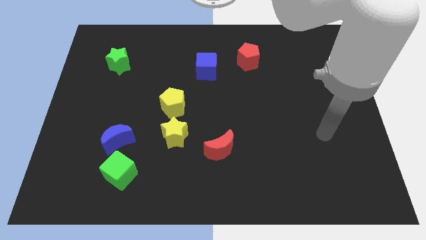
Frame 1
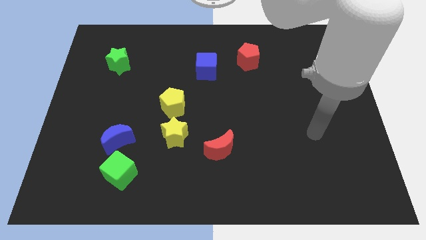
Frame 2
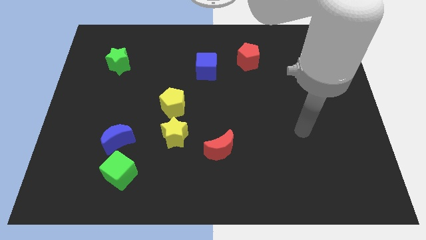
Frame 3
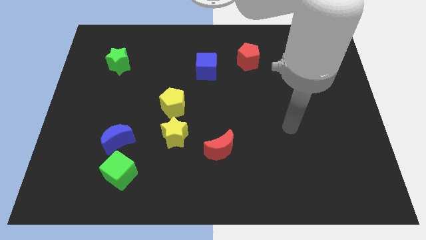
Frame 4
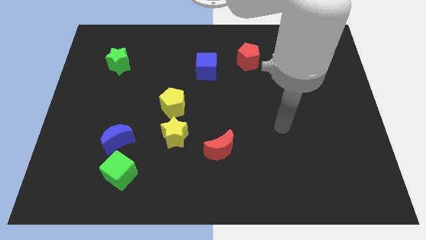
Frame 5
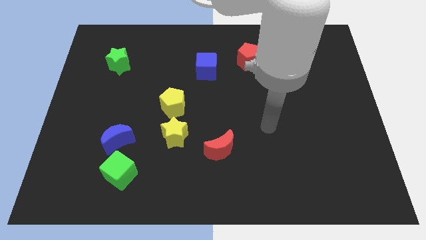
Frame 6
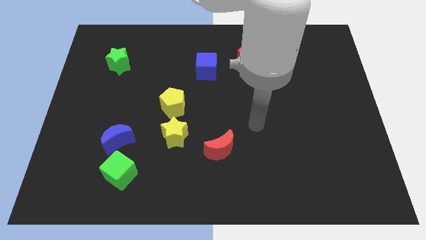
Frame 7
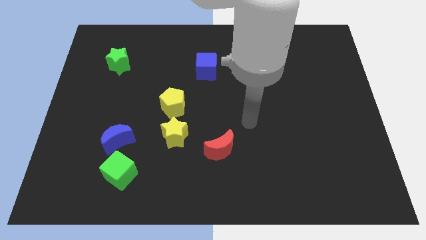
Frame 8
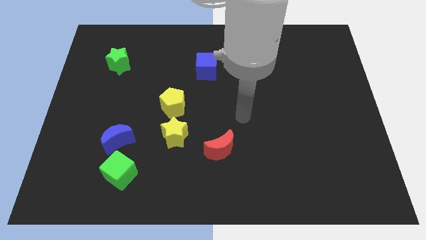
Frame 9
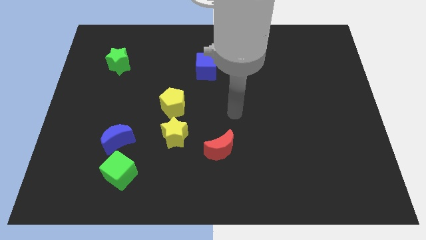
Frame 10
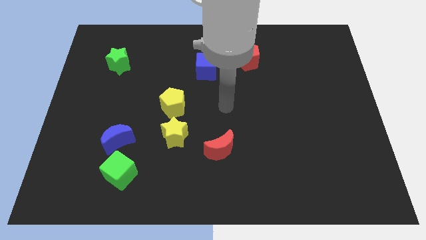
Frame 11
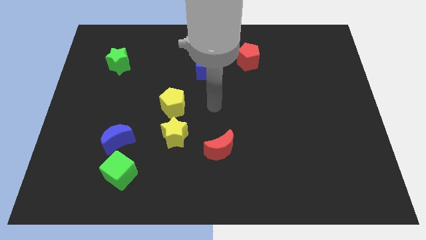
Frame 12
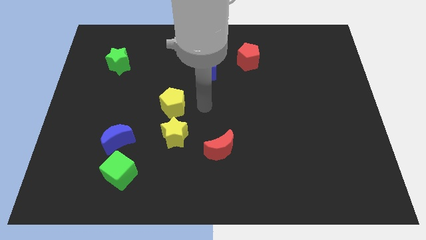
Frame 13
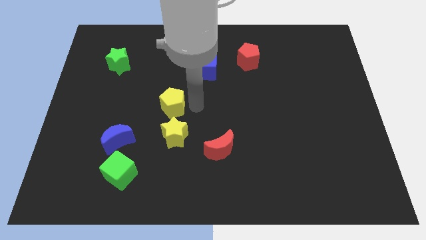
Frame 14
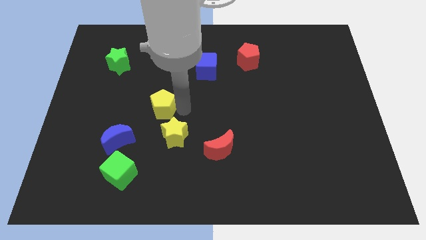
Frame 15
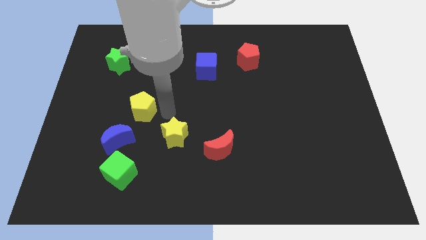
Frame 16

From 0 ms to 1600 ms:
separate the yellow star from the yellow pentagon

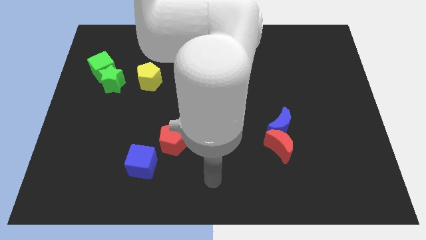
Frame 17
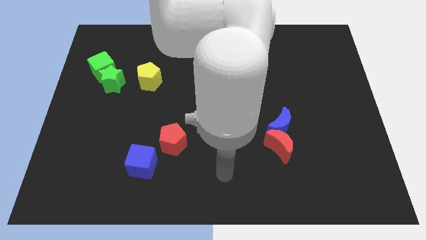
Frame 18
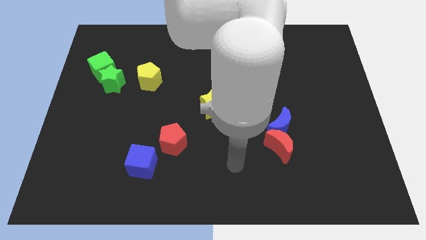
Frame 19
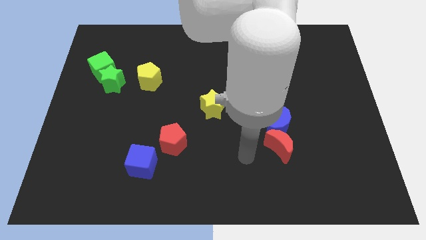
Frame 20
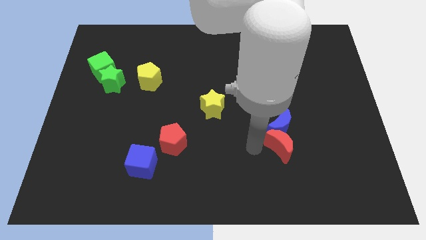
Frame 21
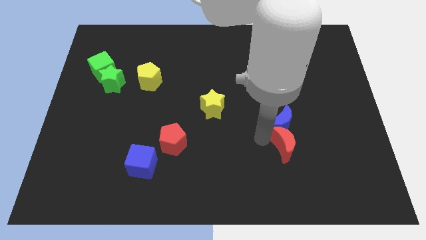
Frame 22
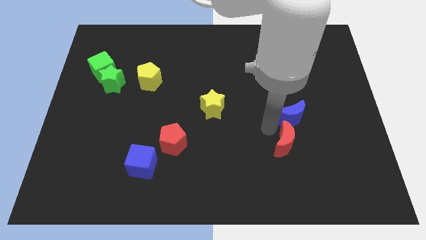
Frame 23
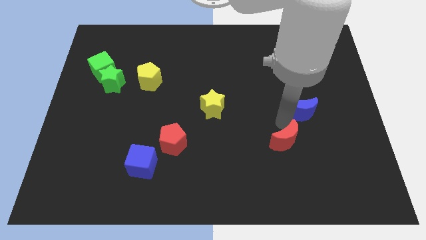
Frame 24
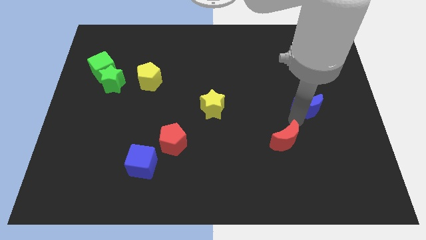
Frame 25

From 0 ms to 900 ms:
move the red moon away from the blue moon

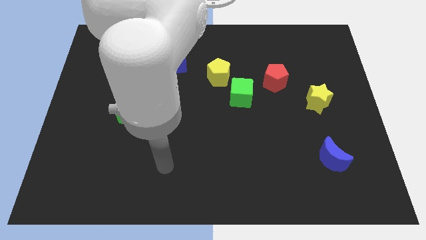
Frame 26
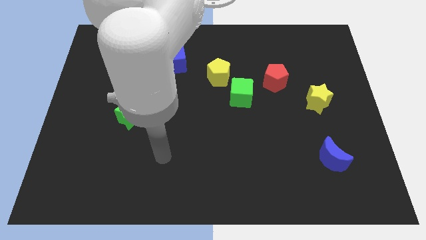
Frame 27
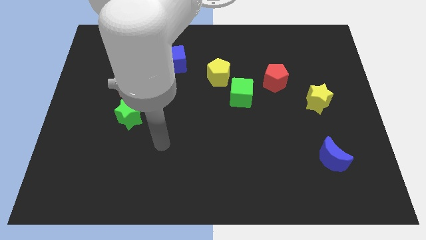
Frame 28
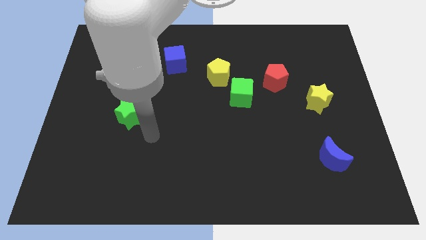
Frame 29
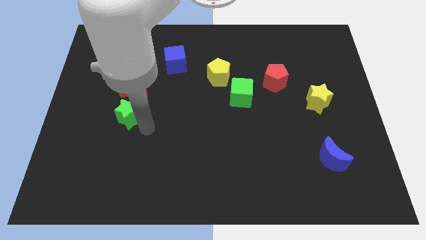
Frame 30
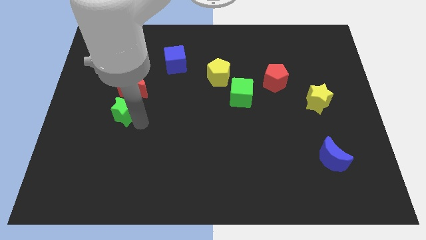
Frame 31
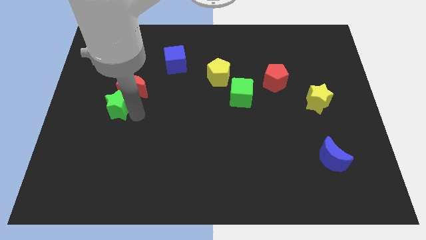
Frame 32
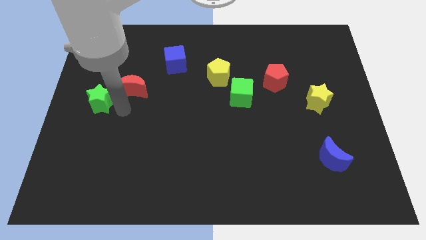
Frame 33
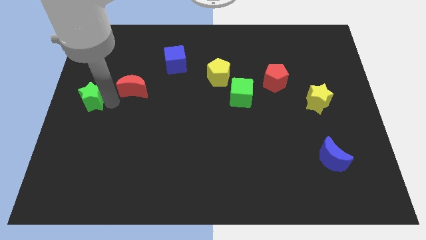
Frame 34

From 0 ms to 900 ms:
move the red moon away from the green star

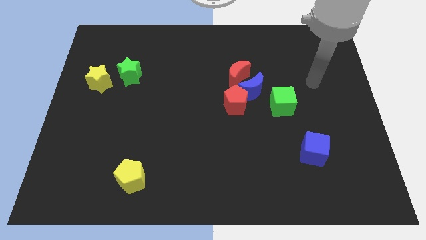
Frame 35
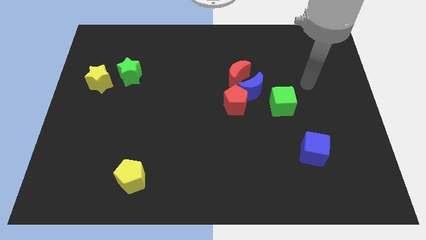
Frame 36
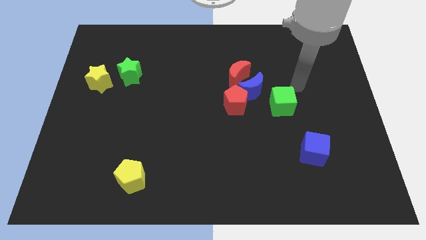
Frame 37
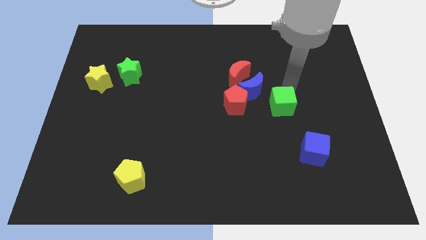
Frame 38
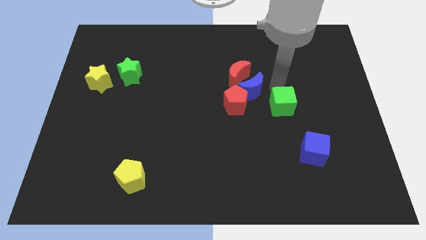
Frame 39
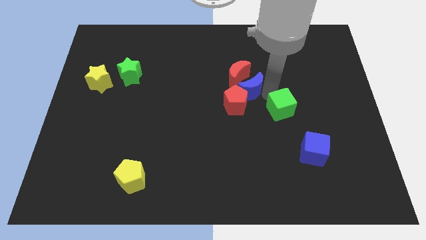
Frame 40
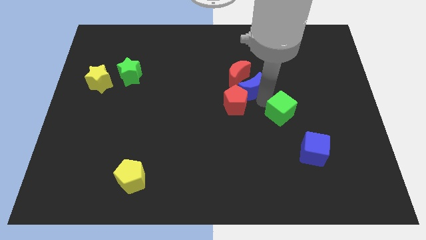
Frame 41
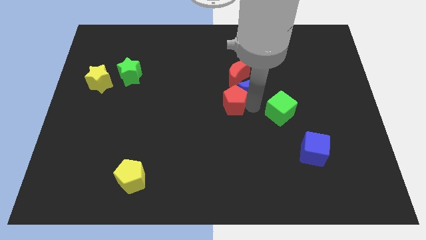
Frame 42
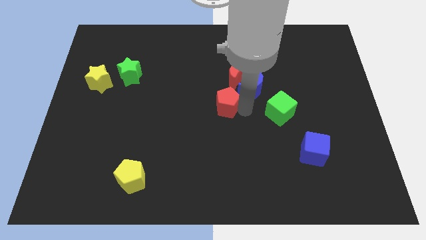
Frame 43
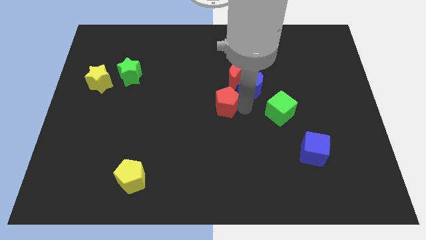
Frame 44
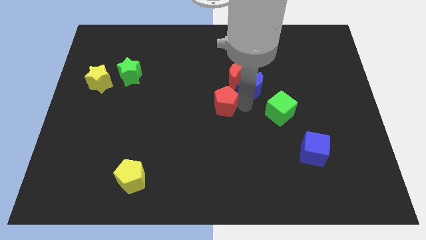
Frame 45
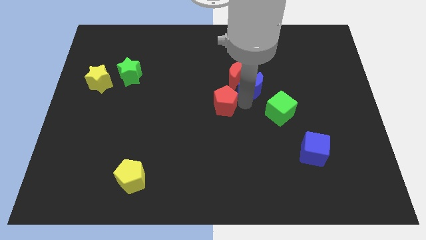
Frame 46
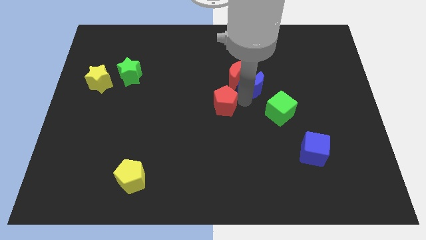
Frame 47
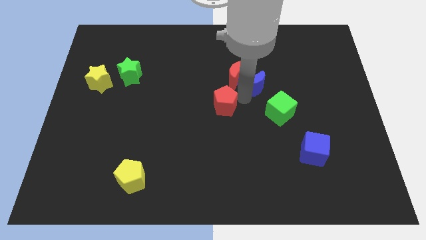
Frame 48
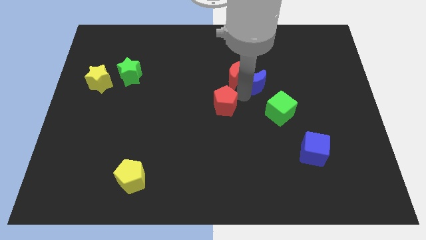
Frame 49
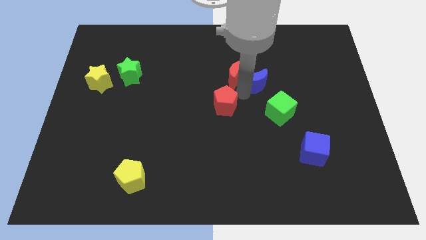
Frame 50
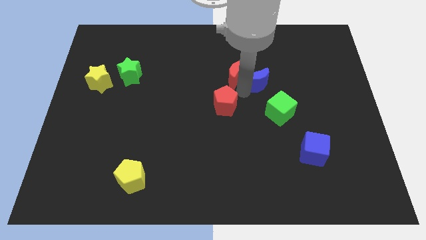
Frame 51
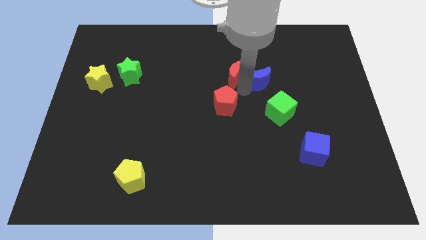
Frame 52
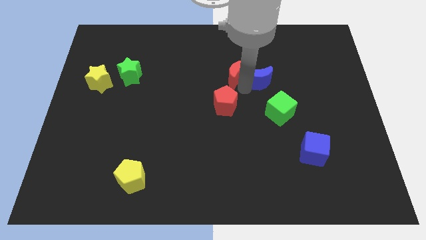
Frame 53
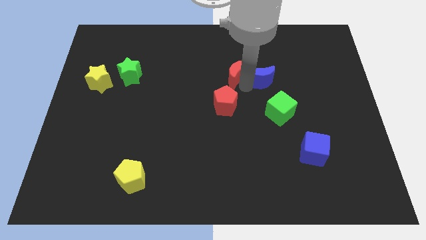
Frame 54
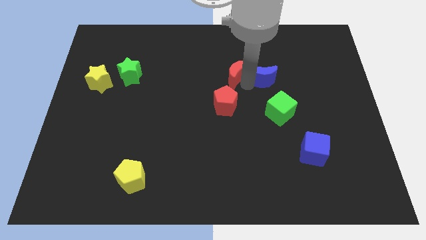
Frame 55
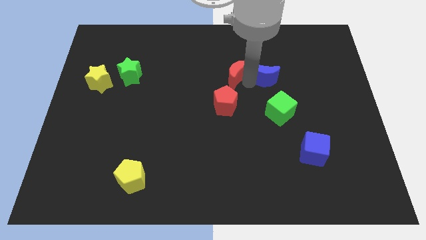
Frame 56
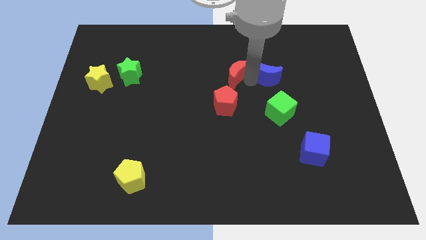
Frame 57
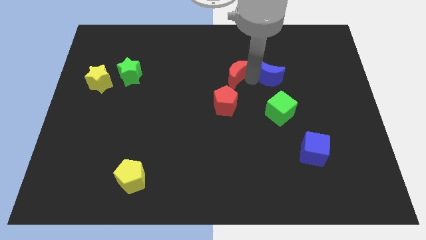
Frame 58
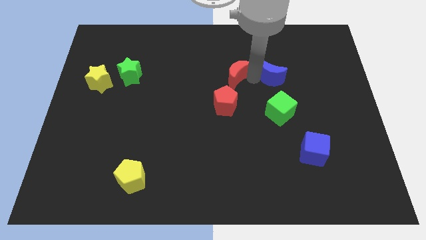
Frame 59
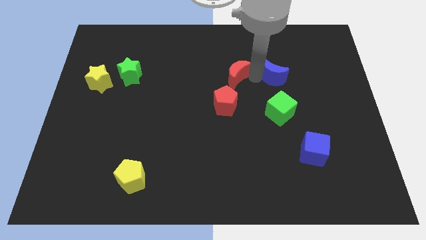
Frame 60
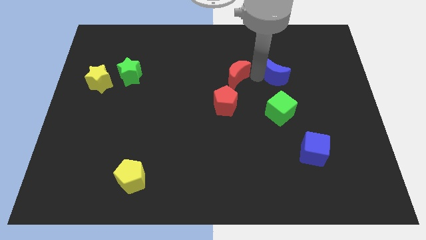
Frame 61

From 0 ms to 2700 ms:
pull the blue moon apart from the group

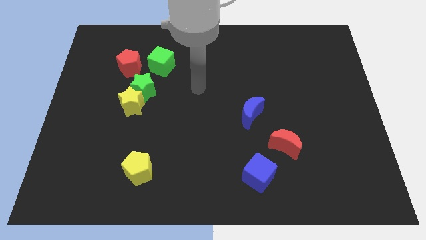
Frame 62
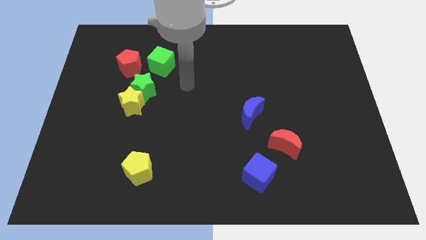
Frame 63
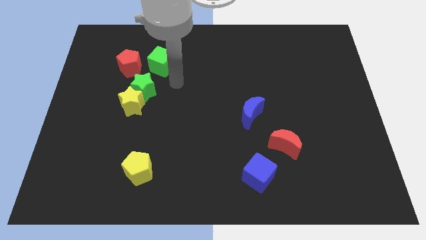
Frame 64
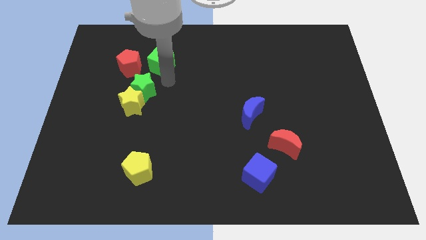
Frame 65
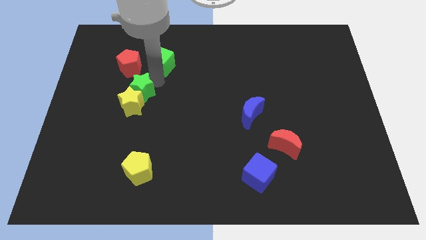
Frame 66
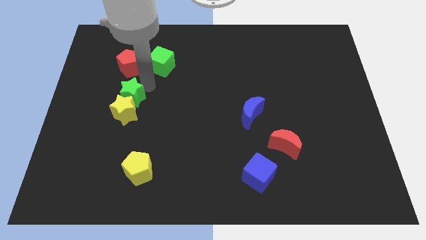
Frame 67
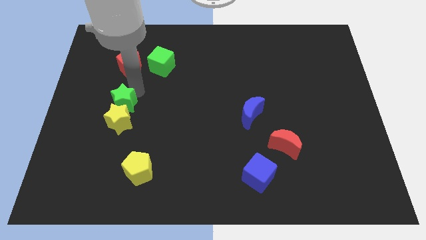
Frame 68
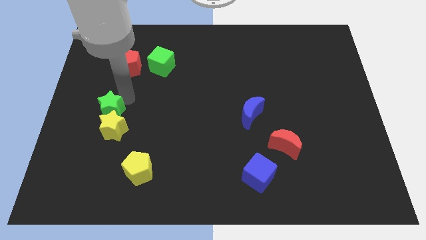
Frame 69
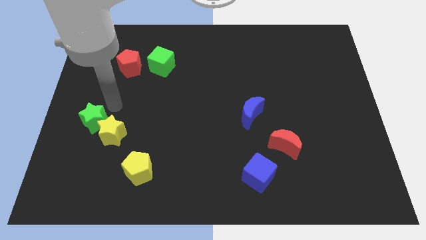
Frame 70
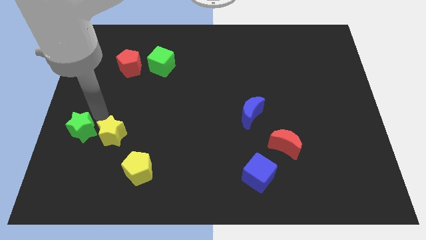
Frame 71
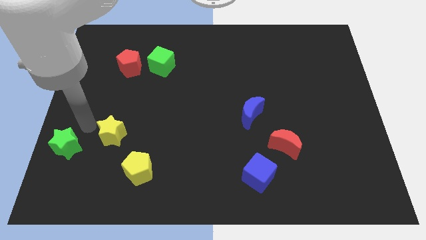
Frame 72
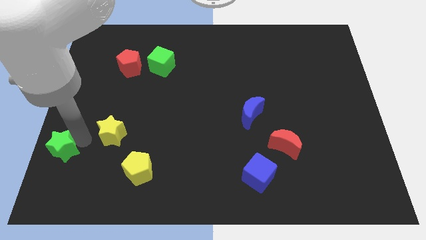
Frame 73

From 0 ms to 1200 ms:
separate the yellow star from the green star

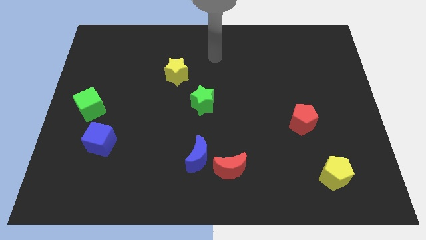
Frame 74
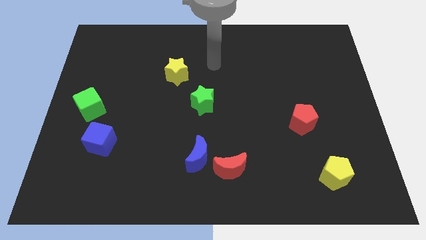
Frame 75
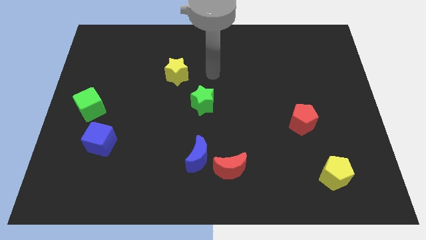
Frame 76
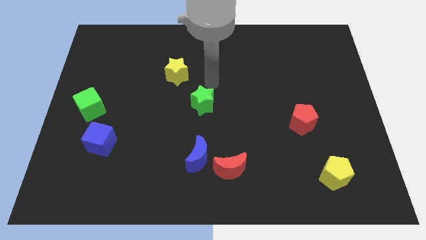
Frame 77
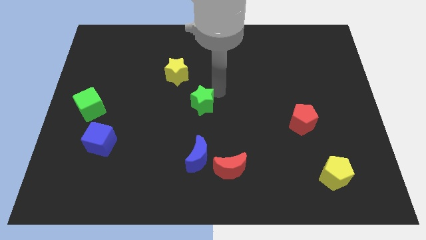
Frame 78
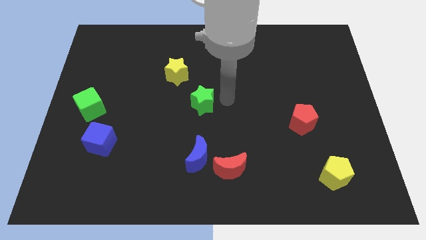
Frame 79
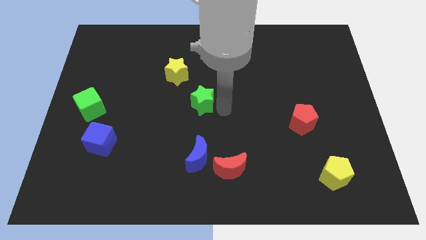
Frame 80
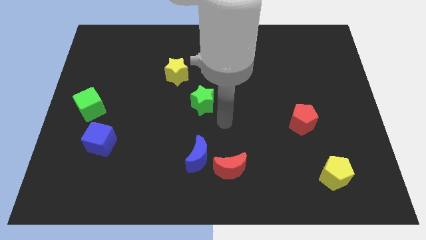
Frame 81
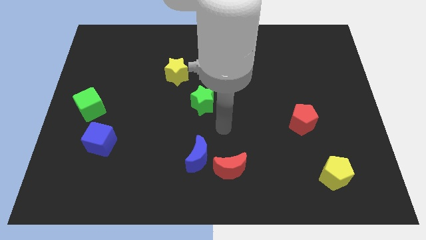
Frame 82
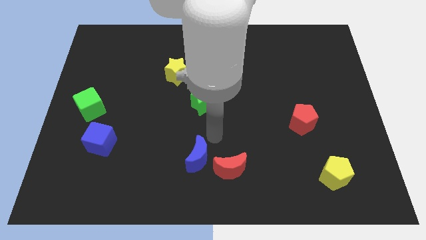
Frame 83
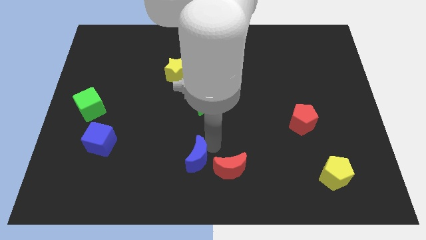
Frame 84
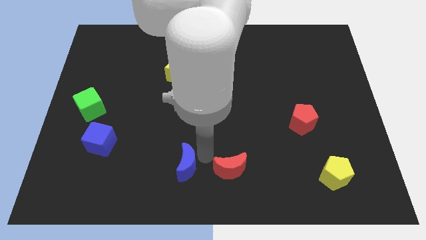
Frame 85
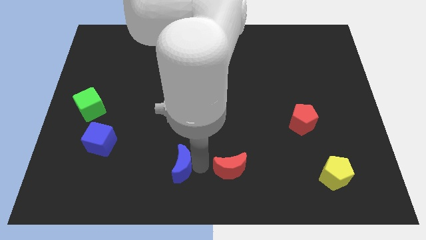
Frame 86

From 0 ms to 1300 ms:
separate the red moon from the blue moon

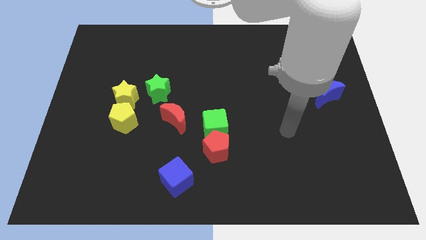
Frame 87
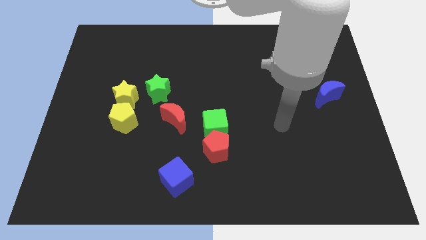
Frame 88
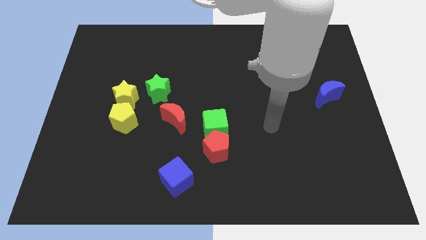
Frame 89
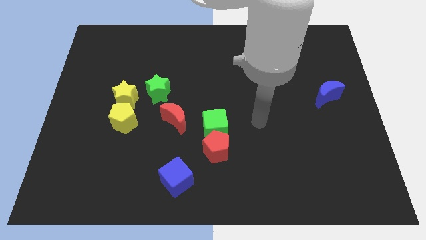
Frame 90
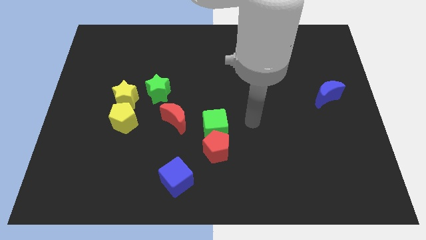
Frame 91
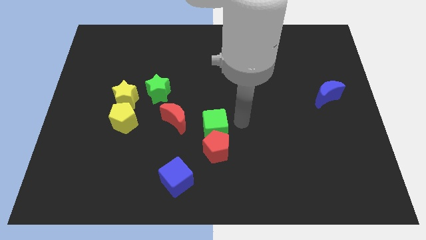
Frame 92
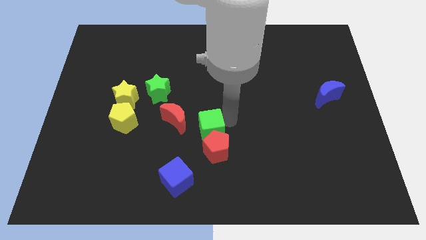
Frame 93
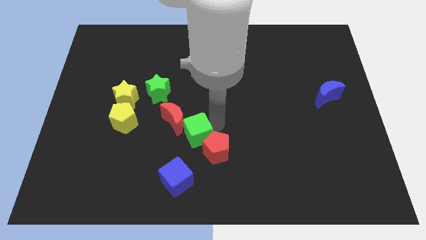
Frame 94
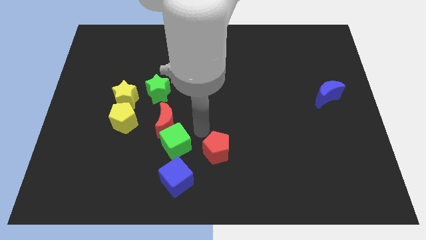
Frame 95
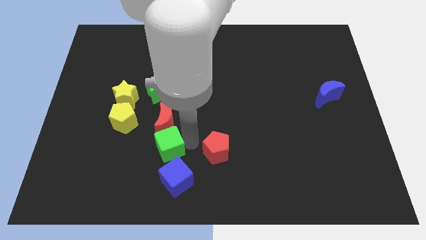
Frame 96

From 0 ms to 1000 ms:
pull the red pentagon apart from the green cube
